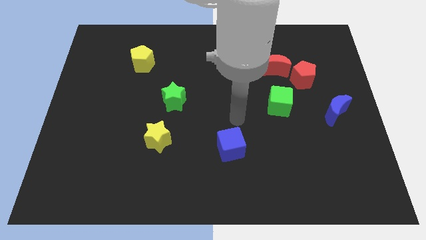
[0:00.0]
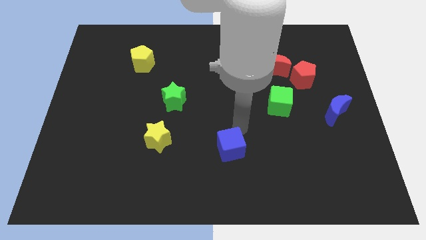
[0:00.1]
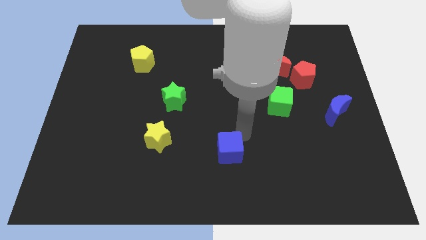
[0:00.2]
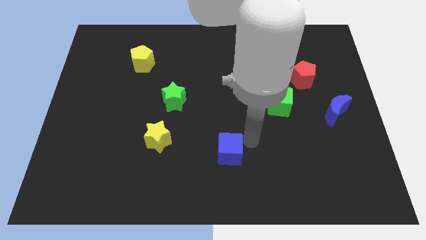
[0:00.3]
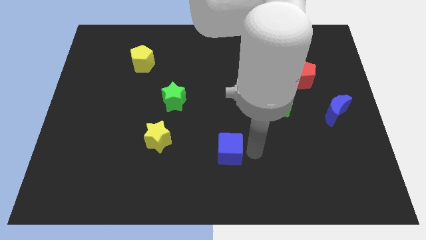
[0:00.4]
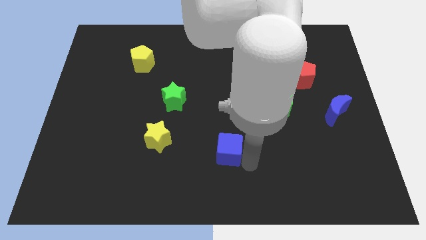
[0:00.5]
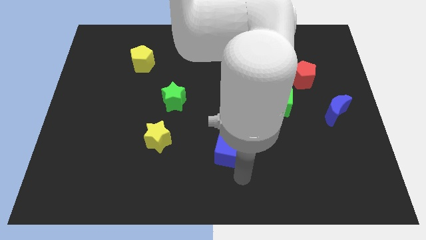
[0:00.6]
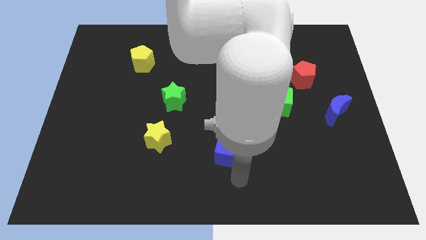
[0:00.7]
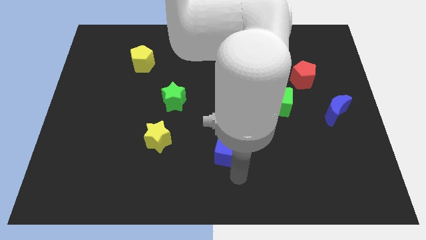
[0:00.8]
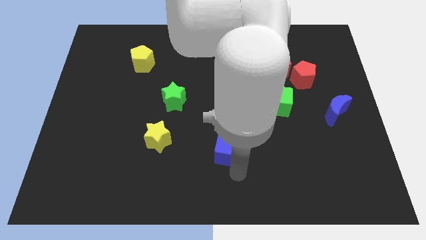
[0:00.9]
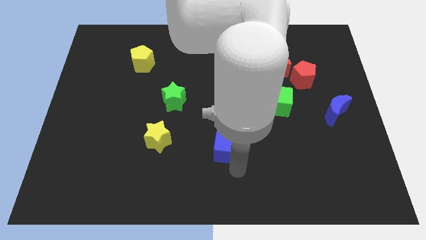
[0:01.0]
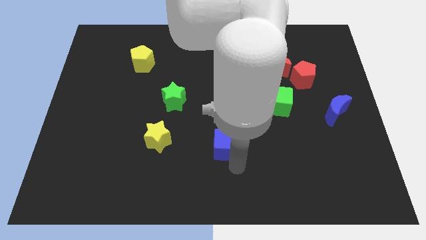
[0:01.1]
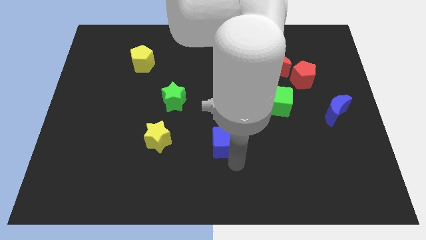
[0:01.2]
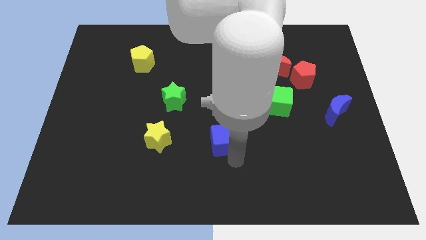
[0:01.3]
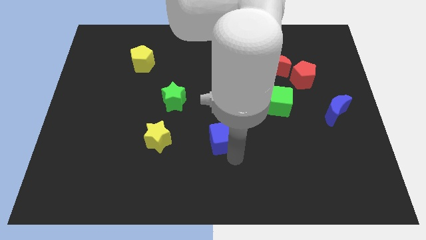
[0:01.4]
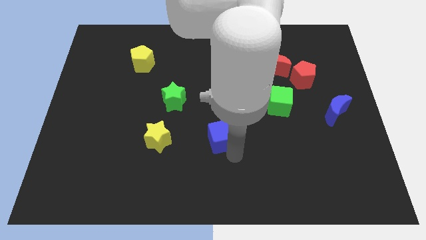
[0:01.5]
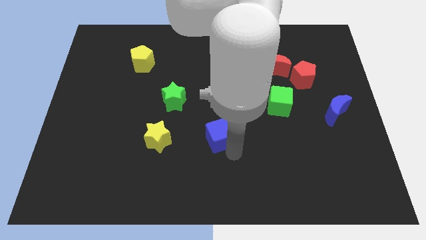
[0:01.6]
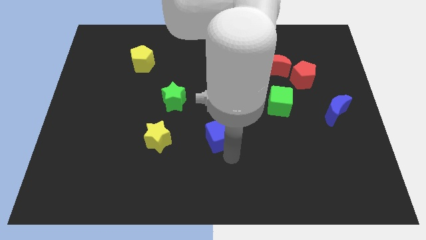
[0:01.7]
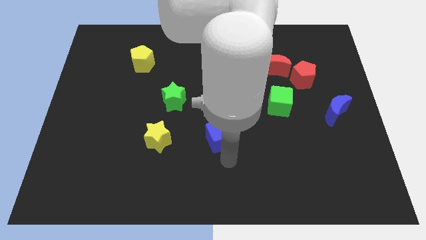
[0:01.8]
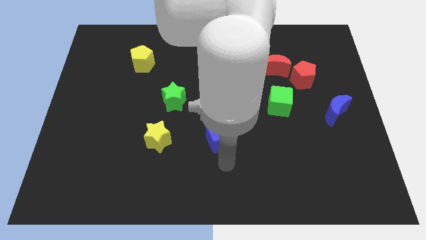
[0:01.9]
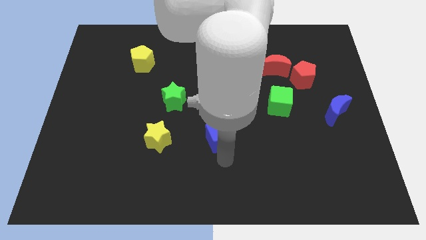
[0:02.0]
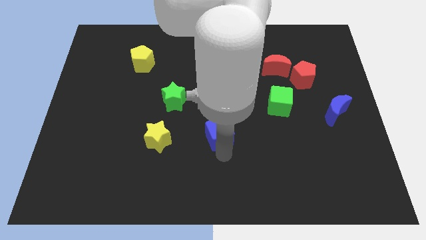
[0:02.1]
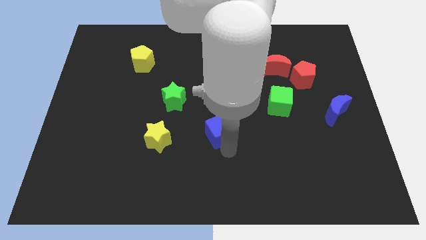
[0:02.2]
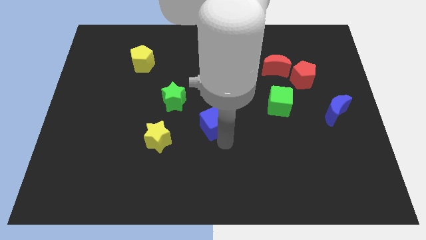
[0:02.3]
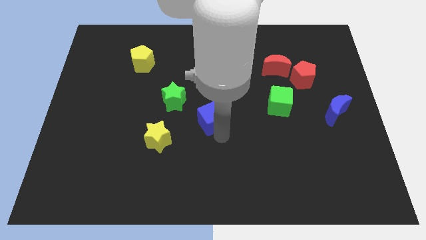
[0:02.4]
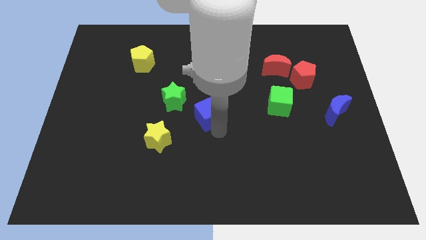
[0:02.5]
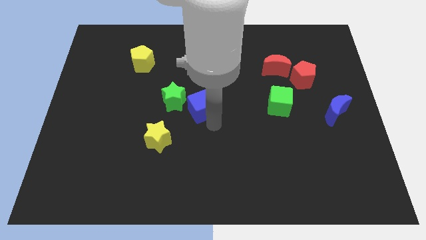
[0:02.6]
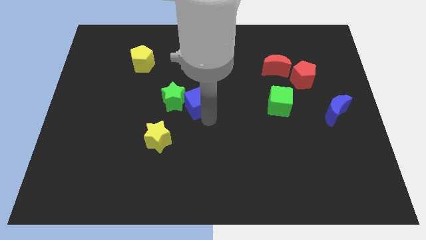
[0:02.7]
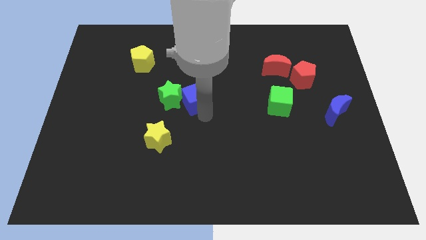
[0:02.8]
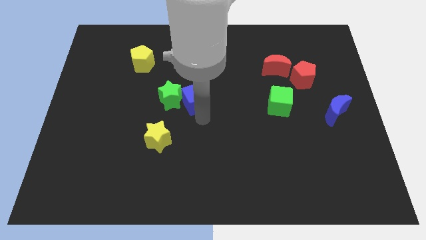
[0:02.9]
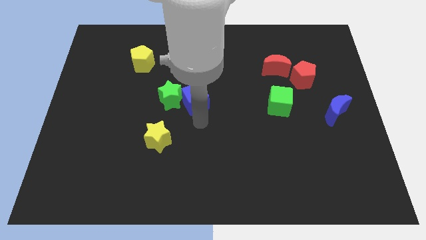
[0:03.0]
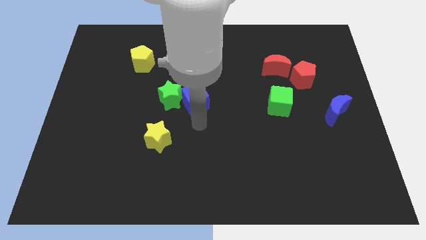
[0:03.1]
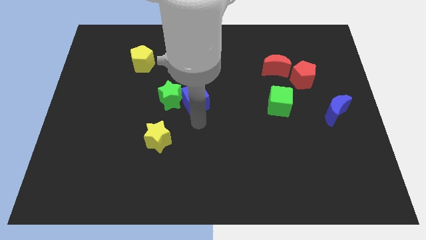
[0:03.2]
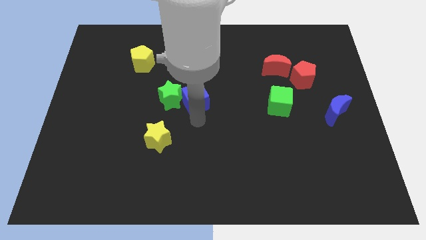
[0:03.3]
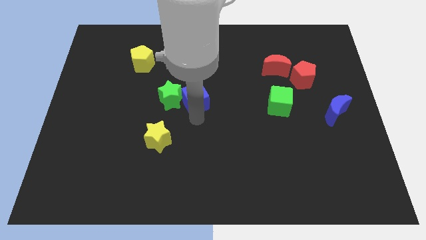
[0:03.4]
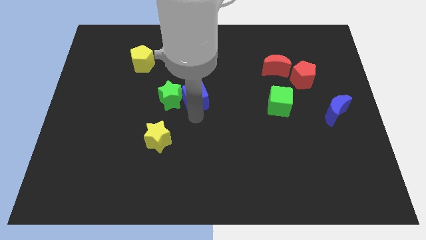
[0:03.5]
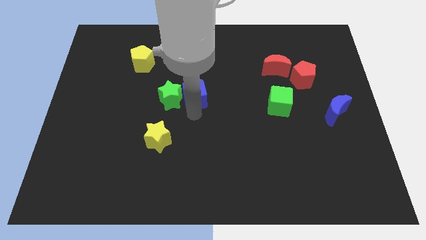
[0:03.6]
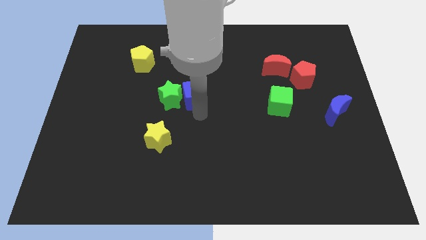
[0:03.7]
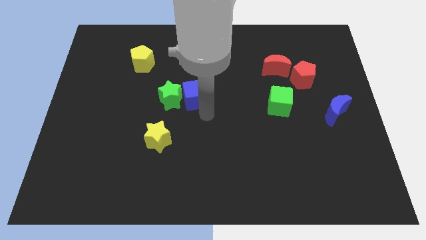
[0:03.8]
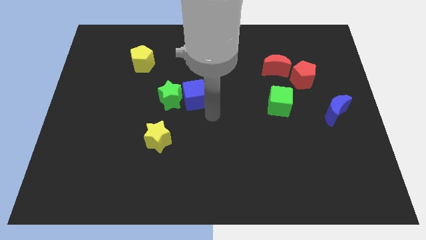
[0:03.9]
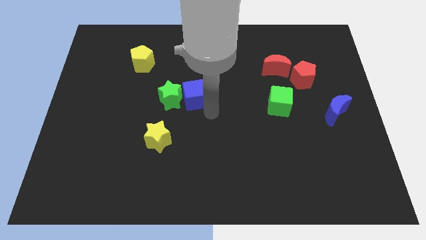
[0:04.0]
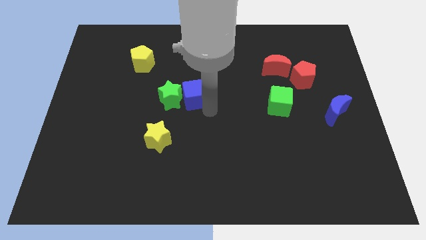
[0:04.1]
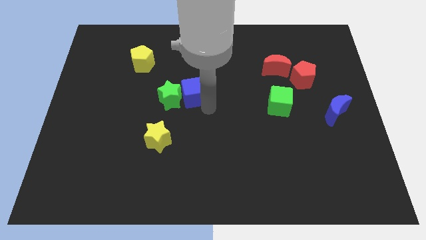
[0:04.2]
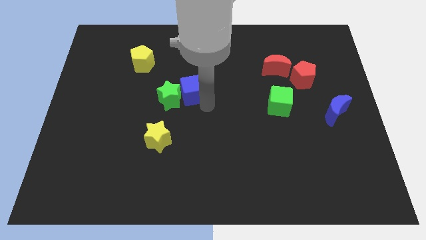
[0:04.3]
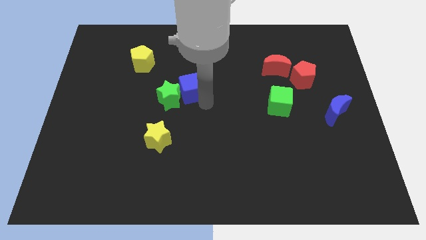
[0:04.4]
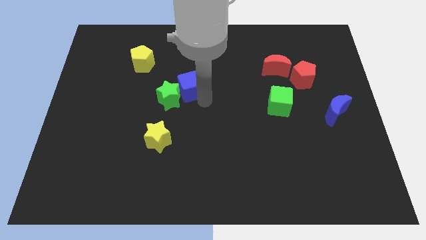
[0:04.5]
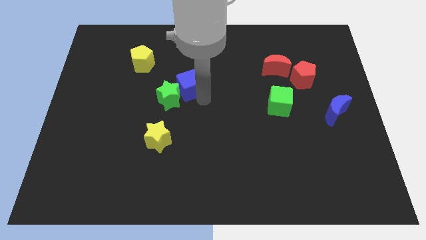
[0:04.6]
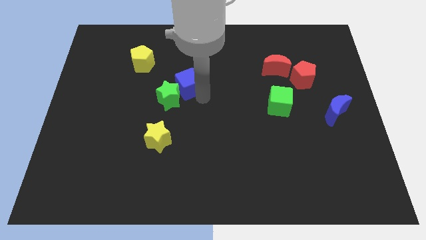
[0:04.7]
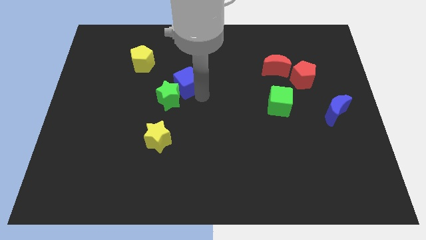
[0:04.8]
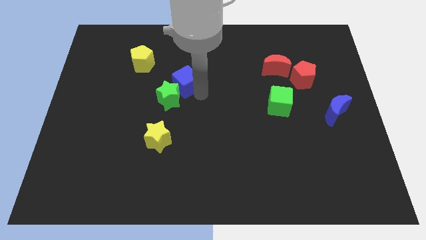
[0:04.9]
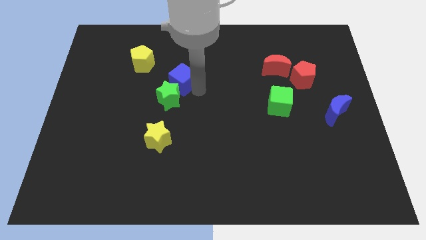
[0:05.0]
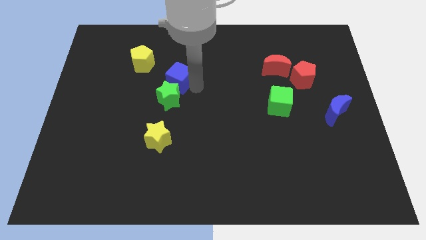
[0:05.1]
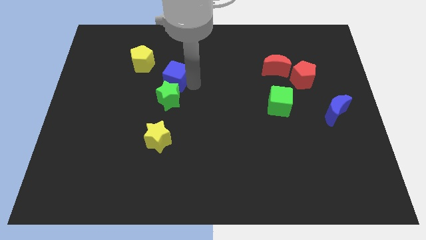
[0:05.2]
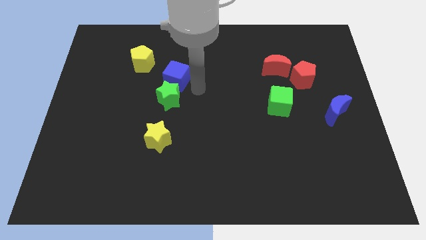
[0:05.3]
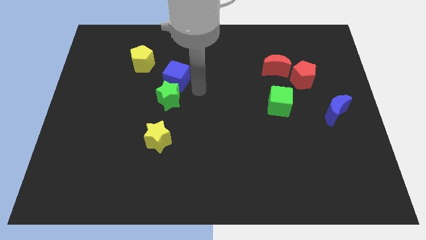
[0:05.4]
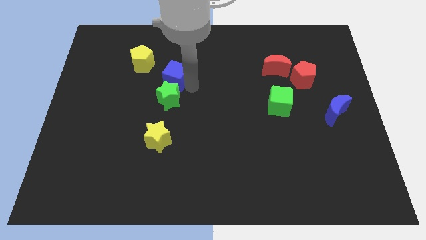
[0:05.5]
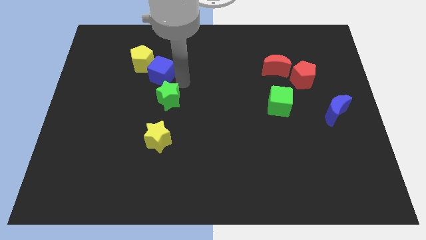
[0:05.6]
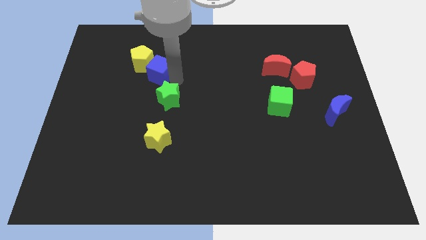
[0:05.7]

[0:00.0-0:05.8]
slide the blue cube next to the yellow pentagon

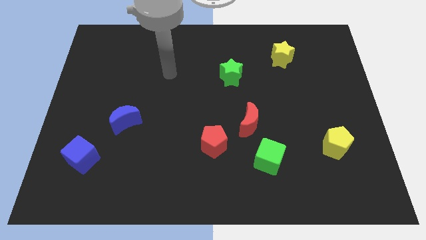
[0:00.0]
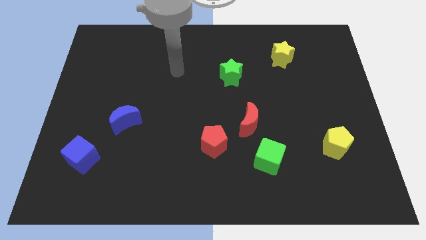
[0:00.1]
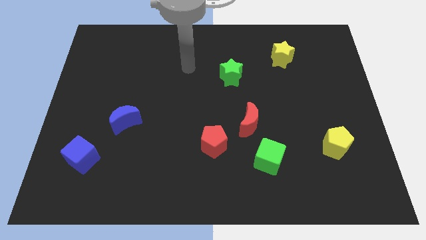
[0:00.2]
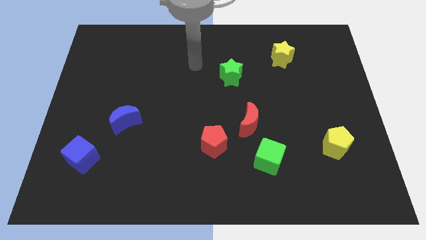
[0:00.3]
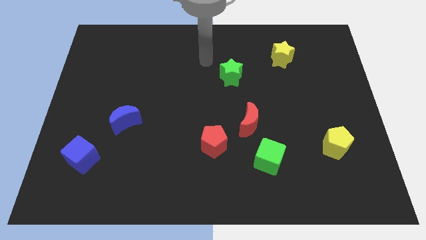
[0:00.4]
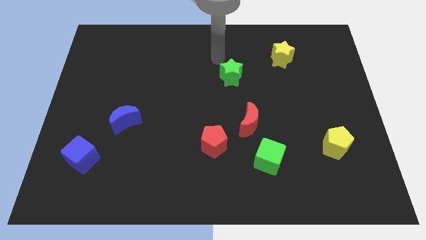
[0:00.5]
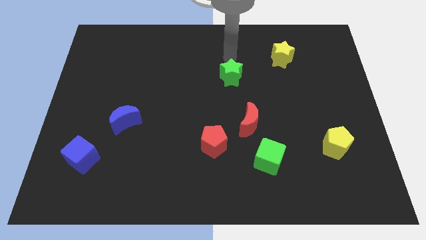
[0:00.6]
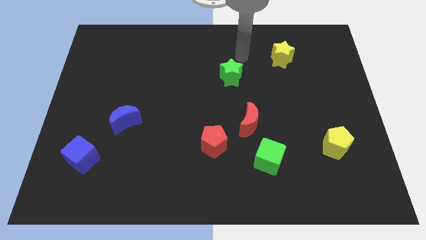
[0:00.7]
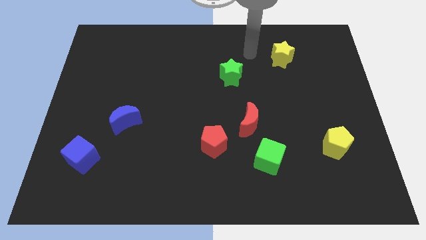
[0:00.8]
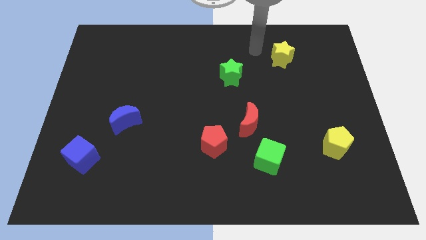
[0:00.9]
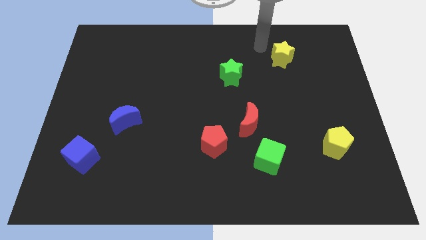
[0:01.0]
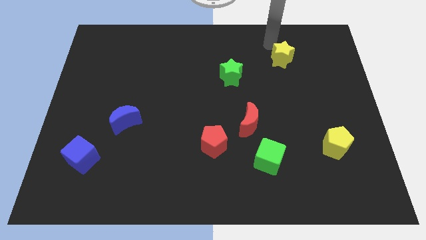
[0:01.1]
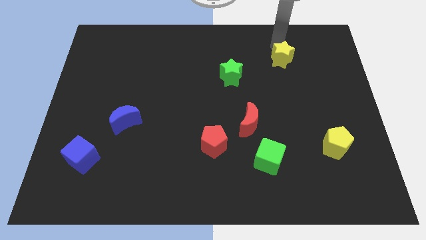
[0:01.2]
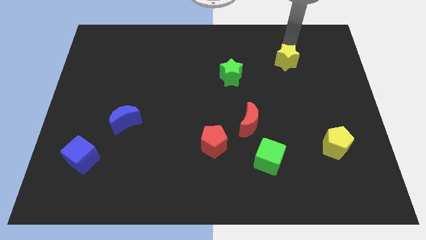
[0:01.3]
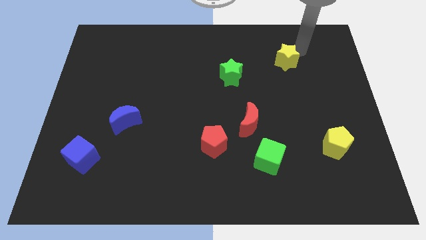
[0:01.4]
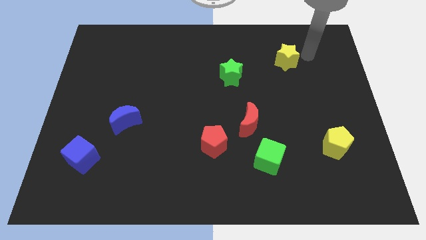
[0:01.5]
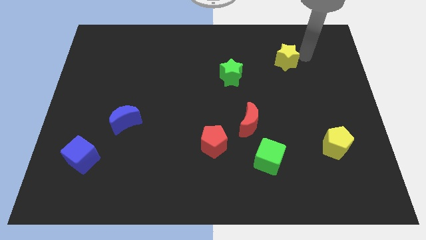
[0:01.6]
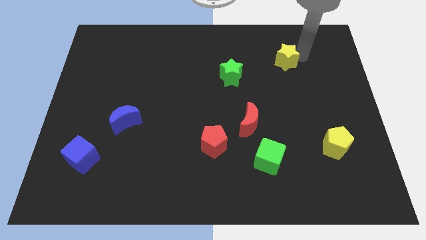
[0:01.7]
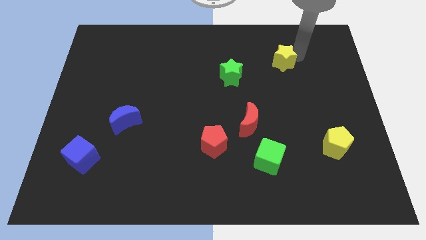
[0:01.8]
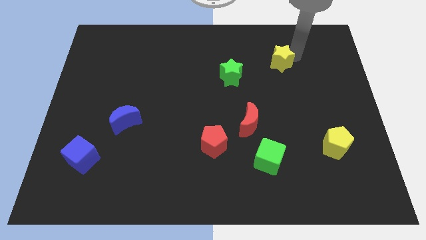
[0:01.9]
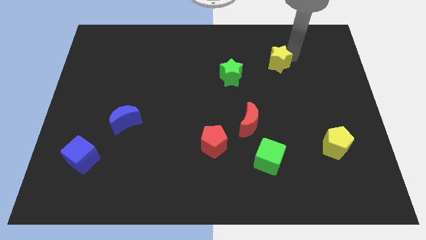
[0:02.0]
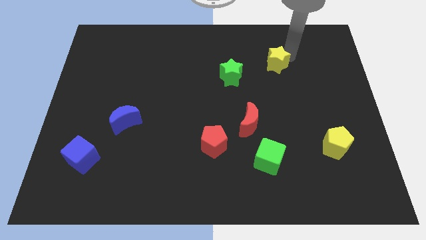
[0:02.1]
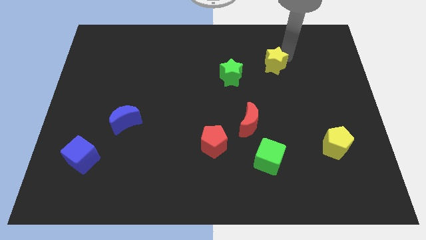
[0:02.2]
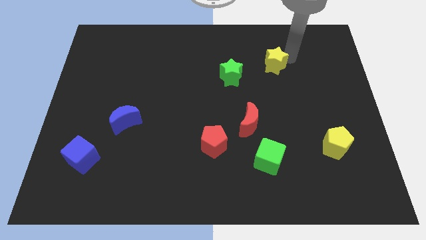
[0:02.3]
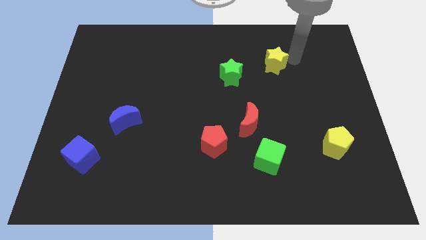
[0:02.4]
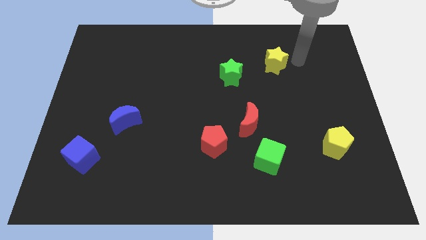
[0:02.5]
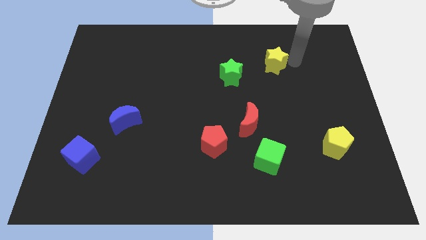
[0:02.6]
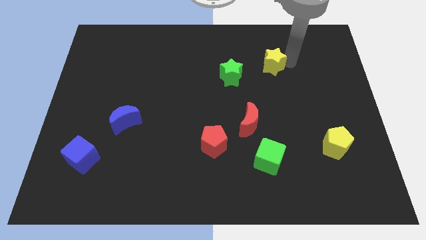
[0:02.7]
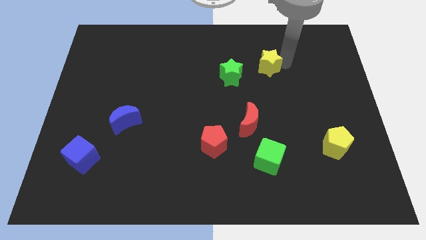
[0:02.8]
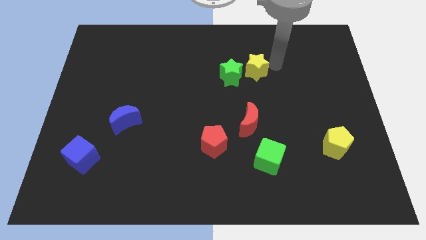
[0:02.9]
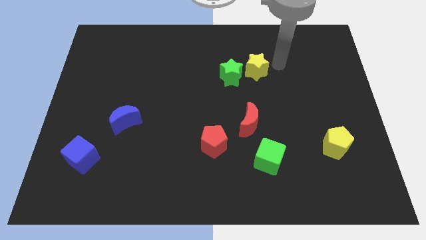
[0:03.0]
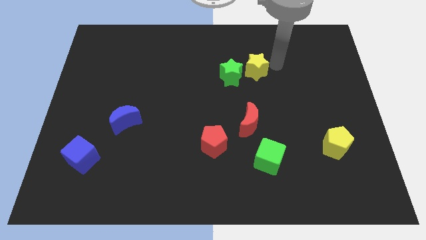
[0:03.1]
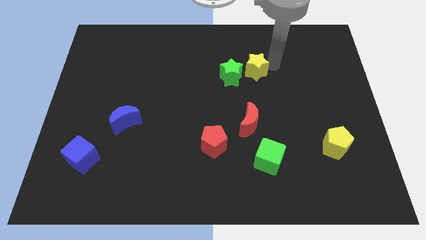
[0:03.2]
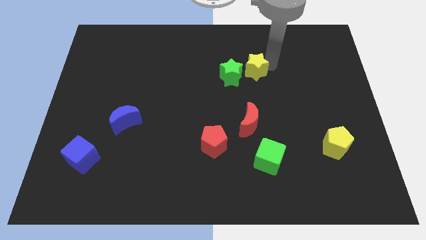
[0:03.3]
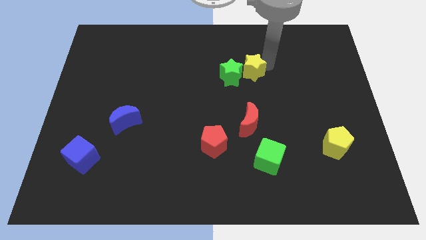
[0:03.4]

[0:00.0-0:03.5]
slide the yellow star next to the green star
